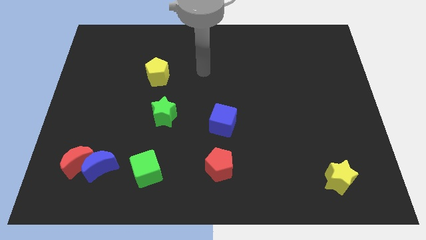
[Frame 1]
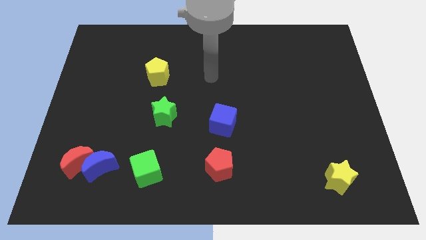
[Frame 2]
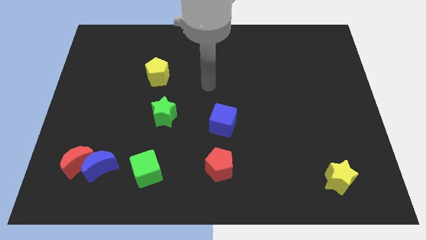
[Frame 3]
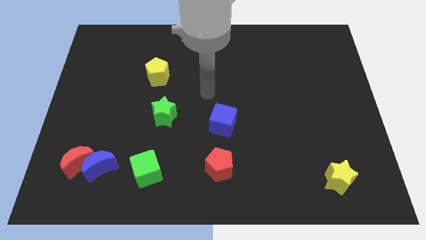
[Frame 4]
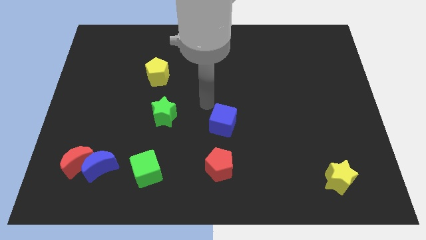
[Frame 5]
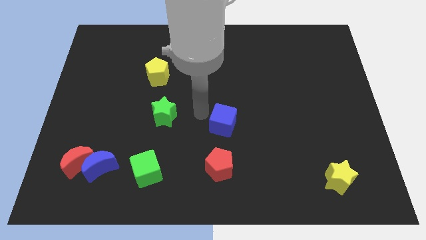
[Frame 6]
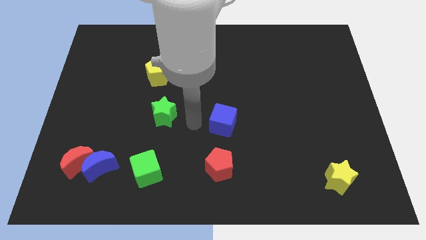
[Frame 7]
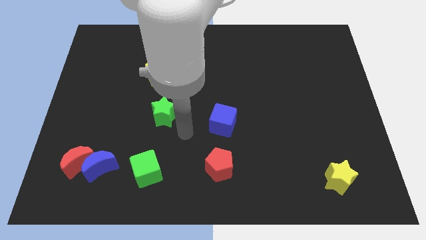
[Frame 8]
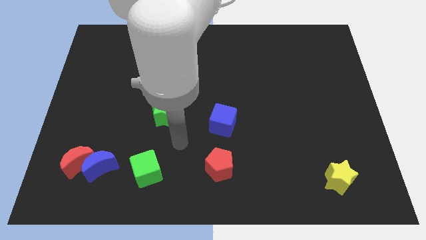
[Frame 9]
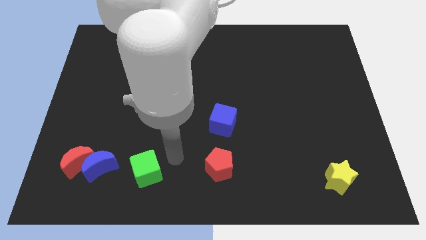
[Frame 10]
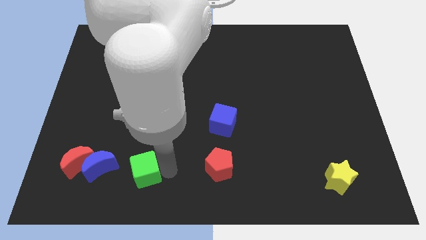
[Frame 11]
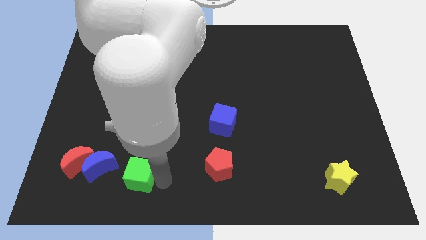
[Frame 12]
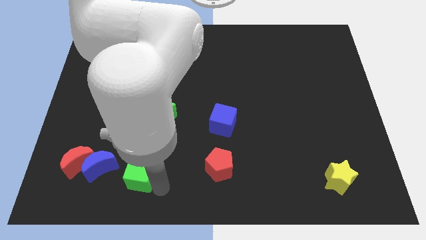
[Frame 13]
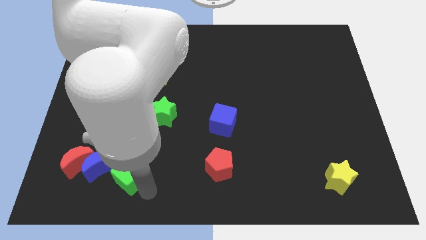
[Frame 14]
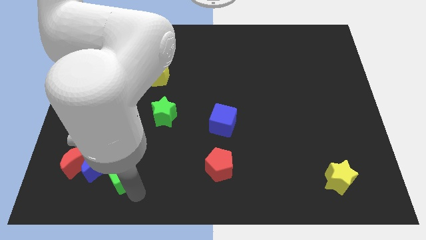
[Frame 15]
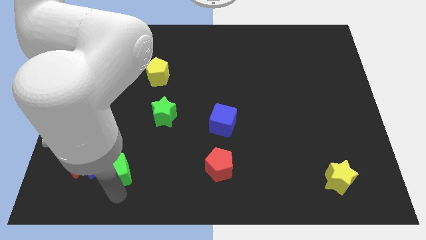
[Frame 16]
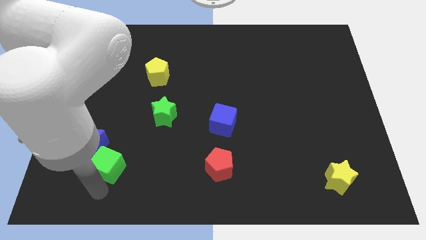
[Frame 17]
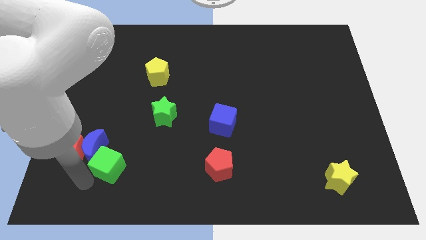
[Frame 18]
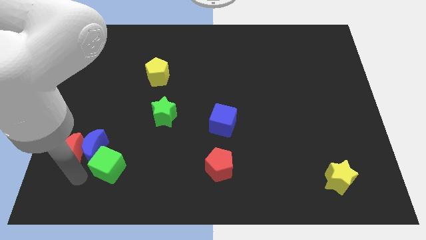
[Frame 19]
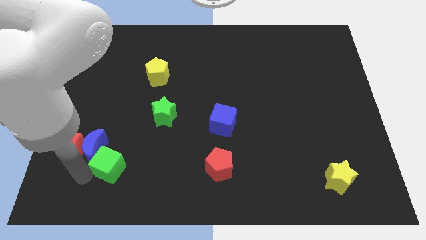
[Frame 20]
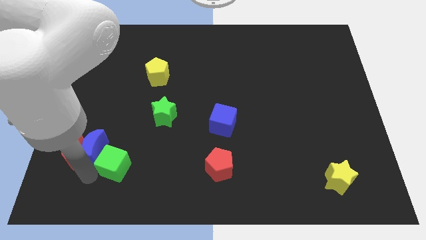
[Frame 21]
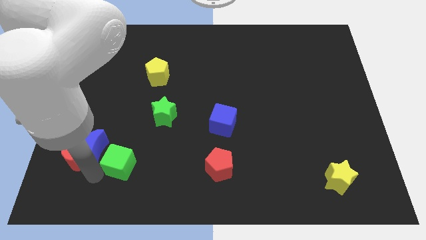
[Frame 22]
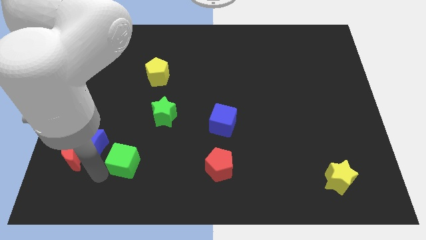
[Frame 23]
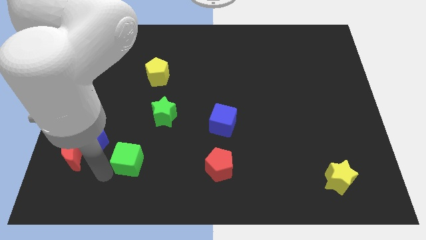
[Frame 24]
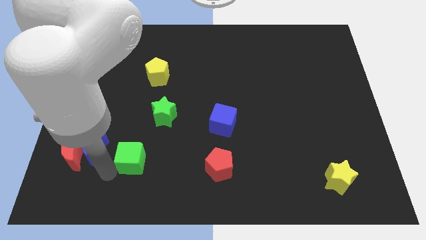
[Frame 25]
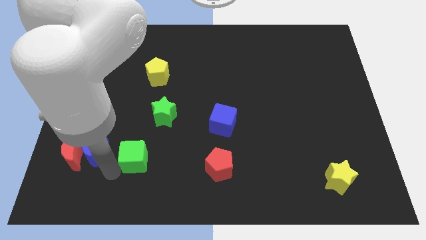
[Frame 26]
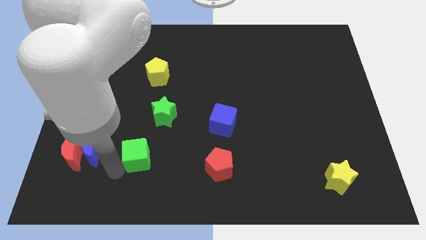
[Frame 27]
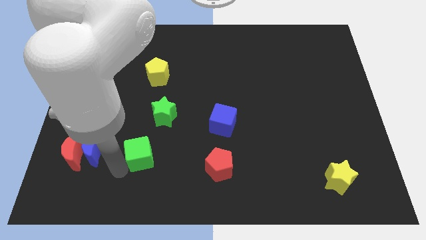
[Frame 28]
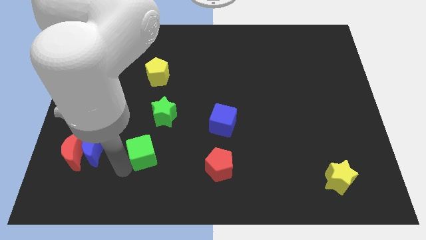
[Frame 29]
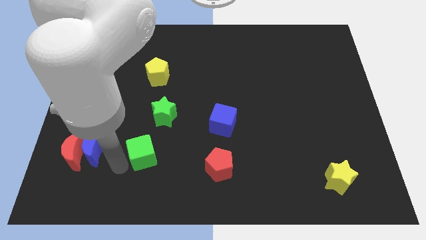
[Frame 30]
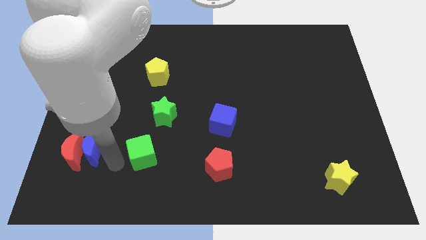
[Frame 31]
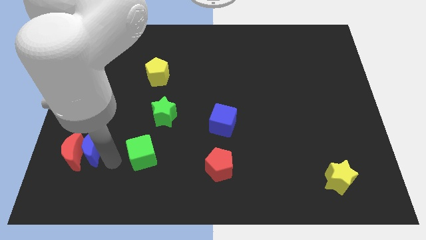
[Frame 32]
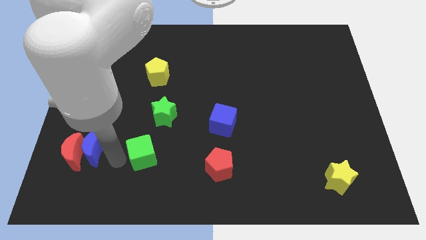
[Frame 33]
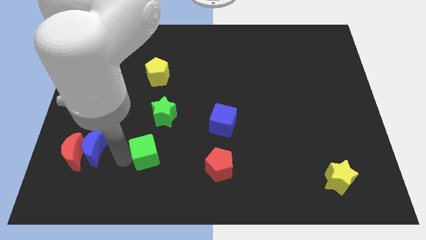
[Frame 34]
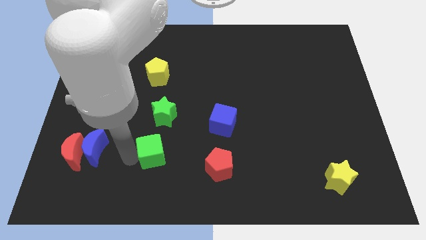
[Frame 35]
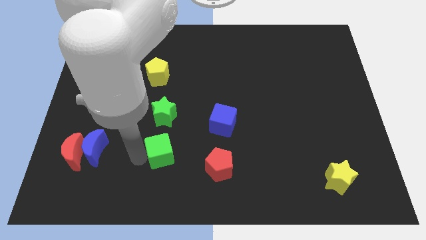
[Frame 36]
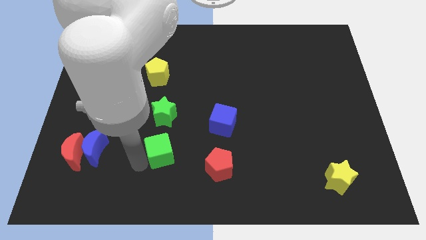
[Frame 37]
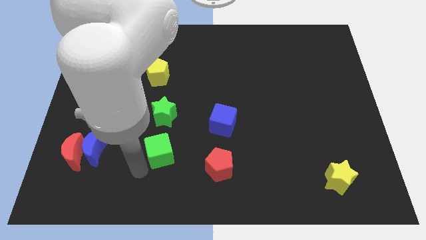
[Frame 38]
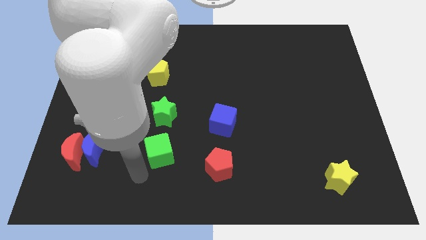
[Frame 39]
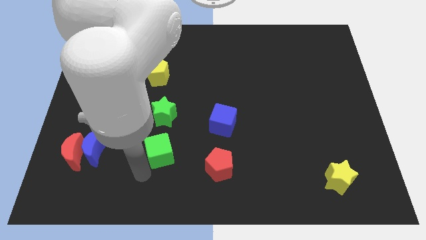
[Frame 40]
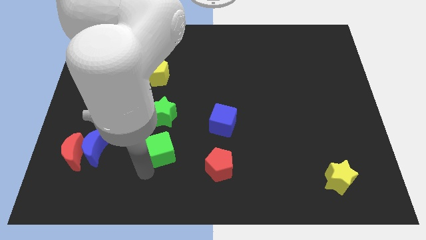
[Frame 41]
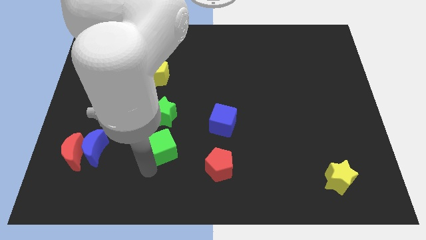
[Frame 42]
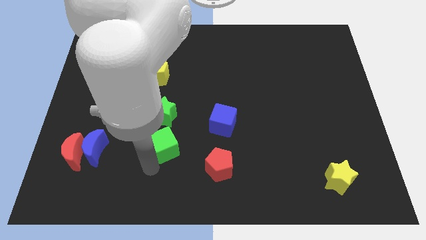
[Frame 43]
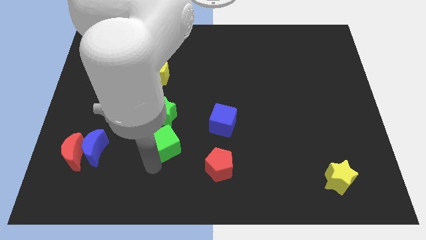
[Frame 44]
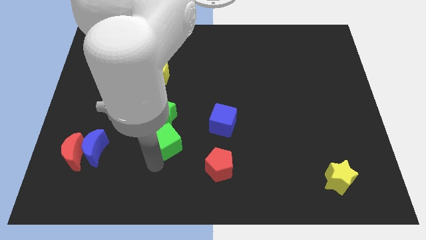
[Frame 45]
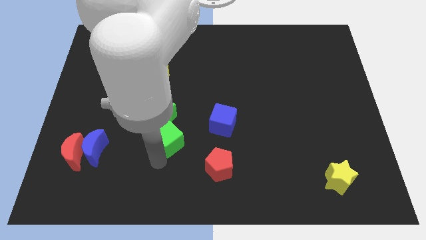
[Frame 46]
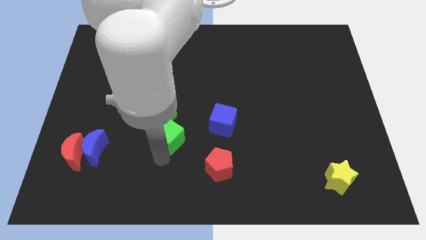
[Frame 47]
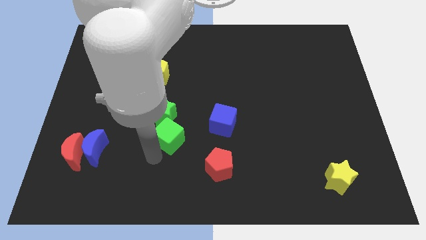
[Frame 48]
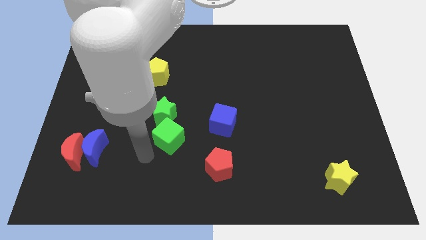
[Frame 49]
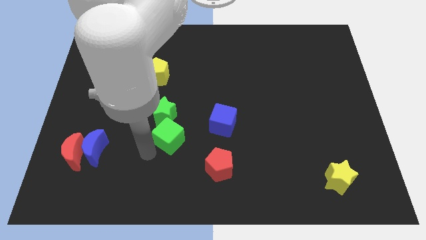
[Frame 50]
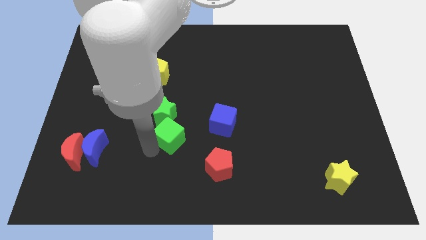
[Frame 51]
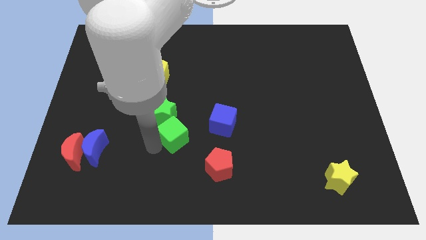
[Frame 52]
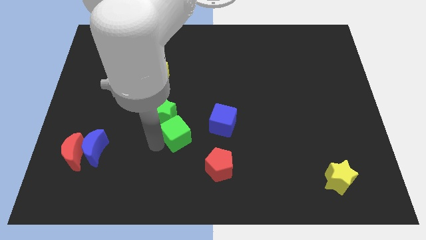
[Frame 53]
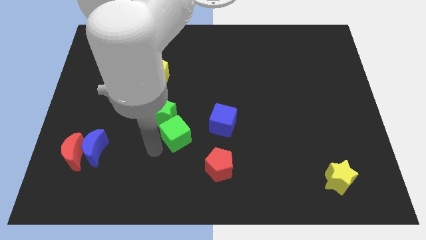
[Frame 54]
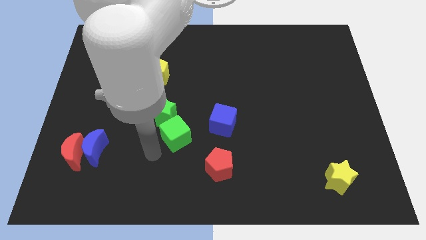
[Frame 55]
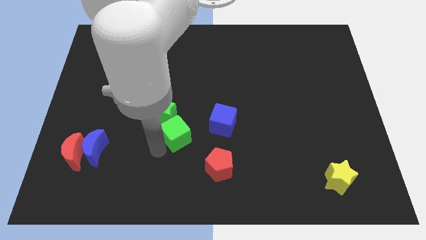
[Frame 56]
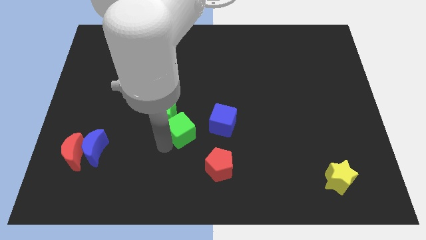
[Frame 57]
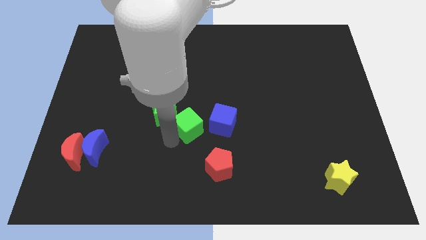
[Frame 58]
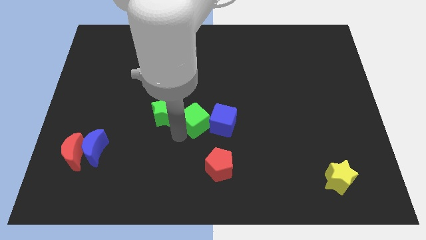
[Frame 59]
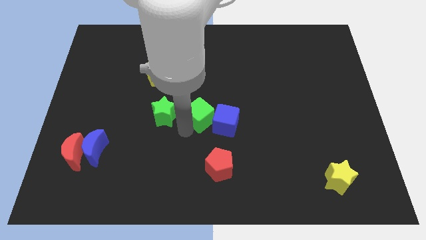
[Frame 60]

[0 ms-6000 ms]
push the green cube to the top side of the red pentagon

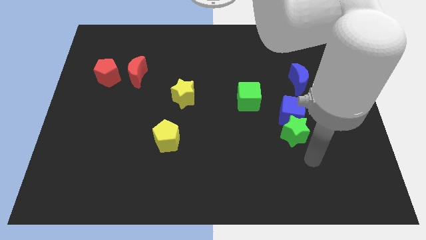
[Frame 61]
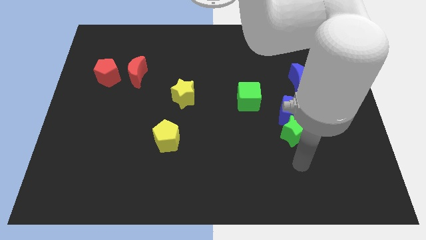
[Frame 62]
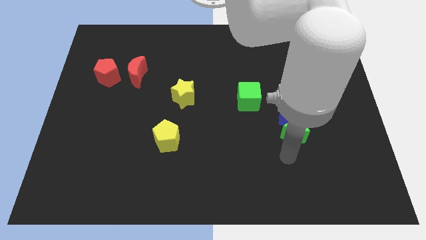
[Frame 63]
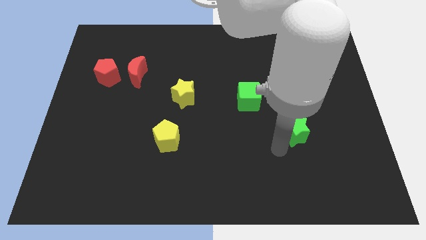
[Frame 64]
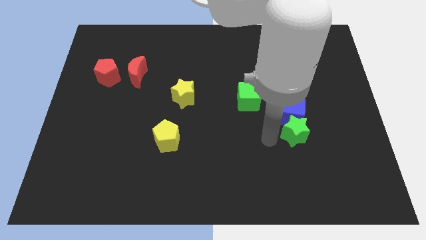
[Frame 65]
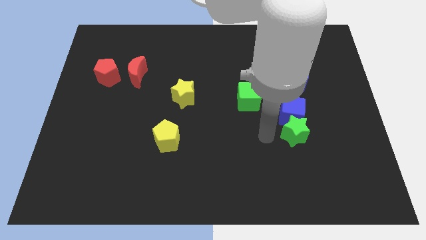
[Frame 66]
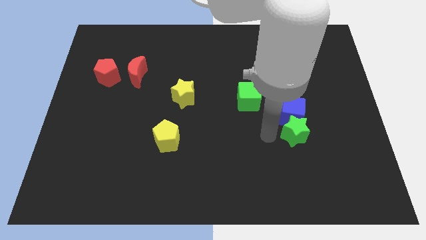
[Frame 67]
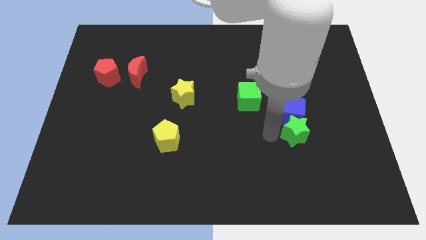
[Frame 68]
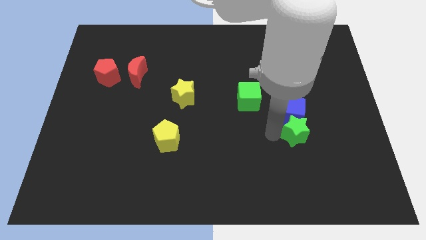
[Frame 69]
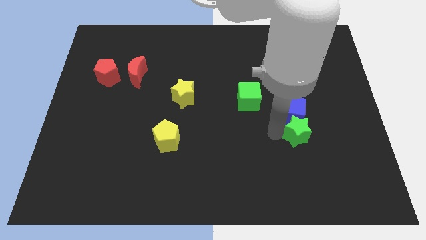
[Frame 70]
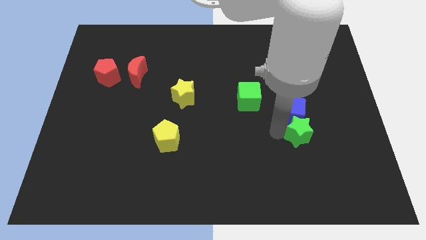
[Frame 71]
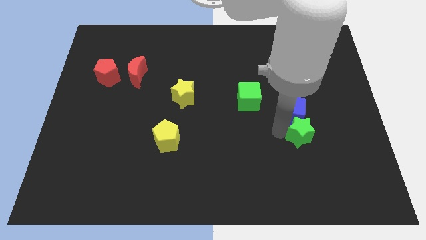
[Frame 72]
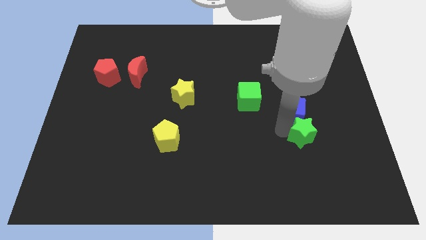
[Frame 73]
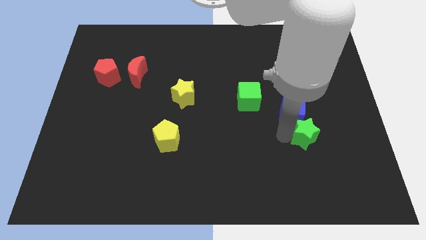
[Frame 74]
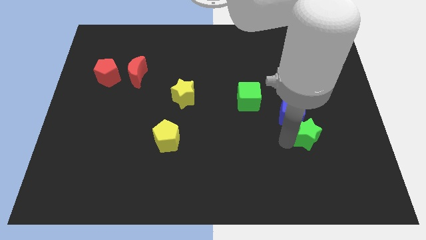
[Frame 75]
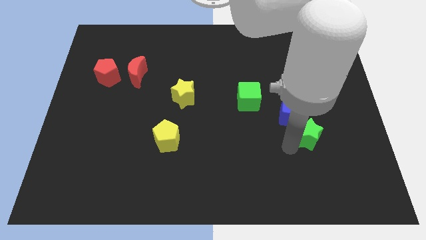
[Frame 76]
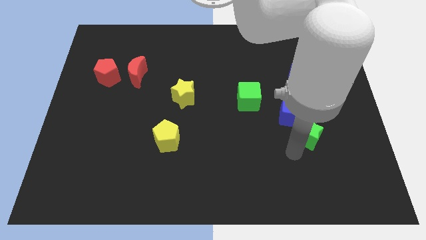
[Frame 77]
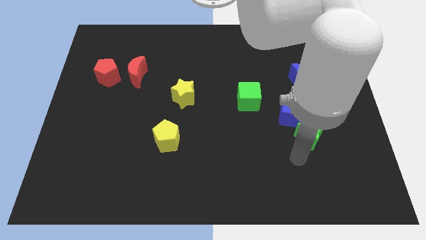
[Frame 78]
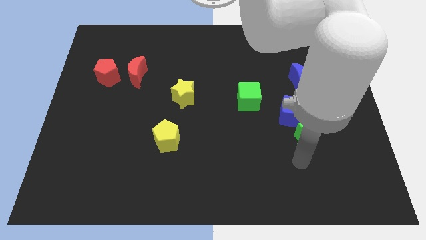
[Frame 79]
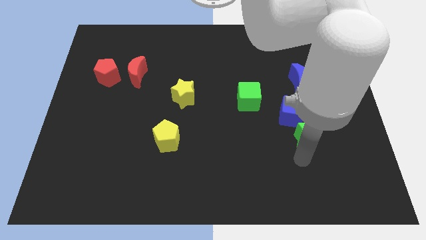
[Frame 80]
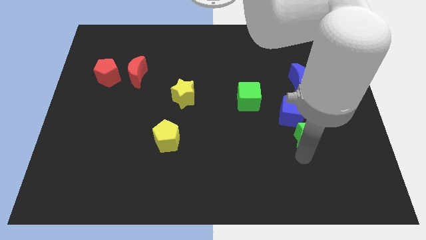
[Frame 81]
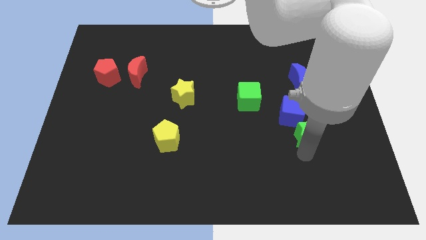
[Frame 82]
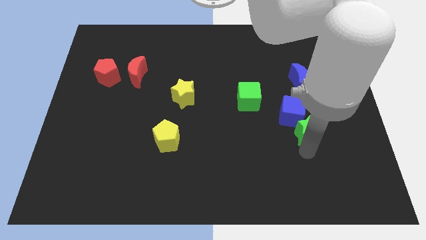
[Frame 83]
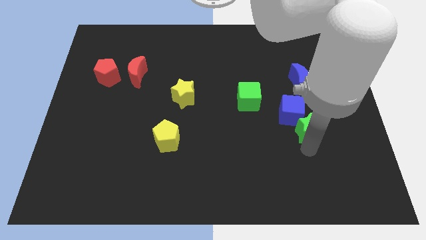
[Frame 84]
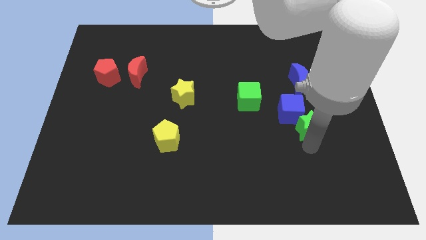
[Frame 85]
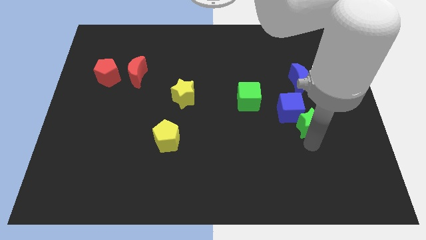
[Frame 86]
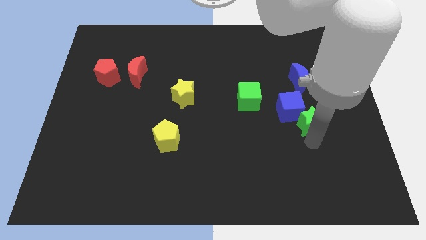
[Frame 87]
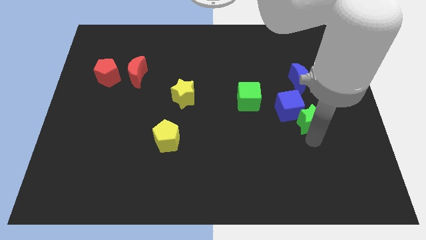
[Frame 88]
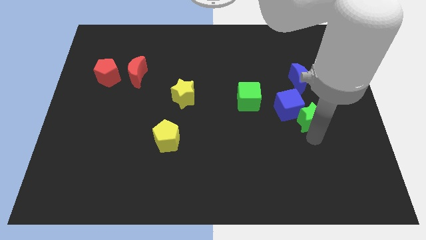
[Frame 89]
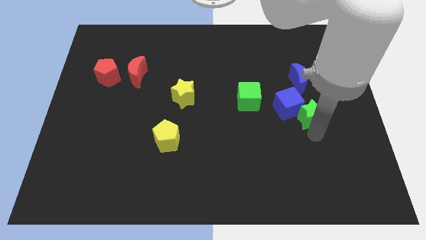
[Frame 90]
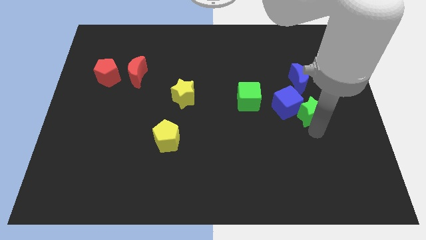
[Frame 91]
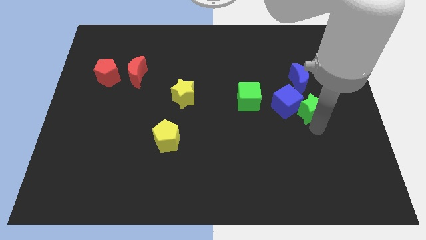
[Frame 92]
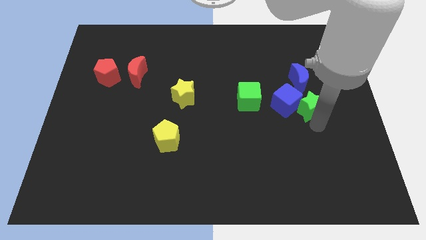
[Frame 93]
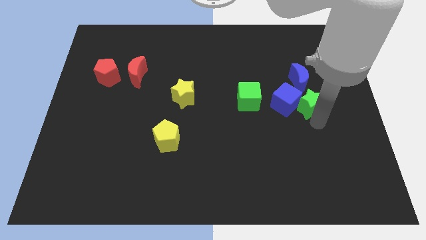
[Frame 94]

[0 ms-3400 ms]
slide the green star to the top right side of the blue cube
